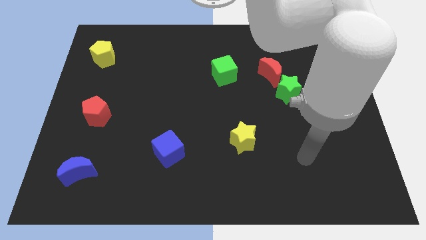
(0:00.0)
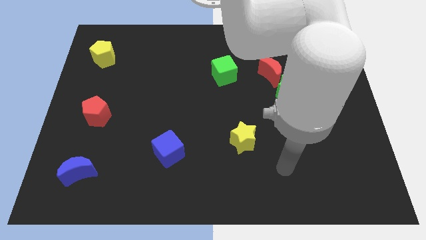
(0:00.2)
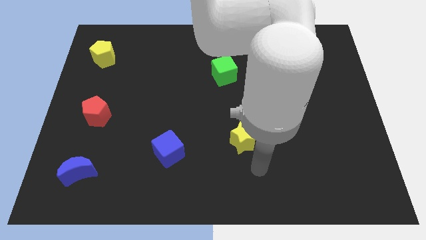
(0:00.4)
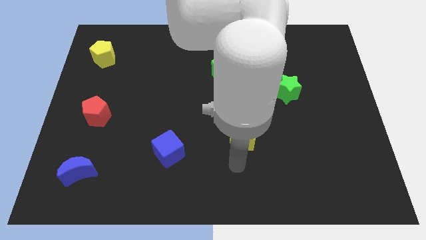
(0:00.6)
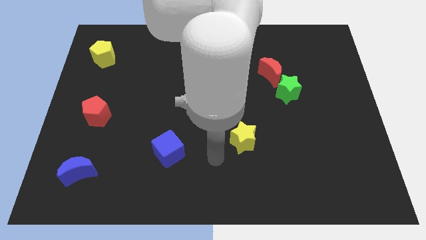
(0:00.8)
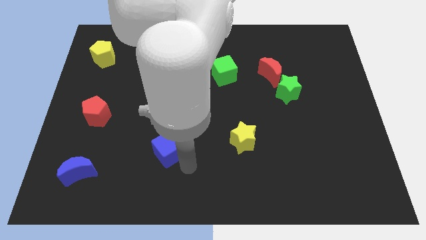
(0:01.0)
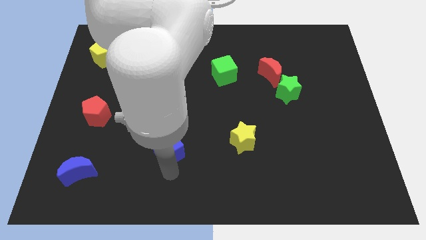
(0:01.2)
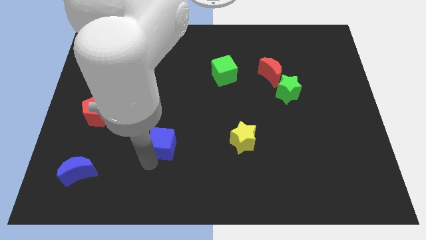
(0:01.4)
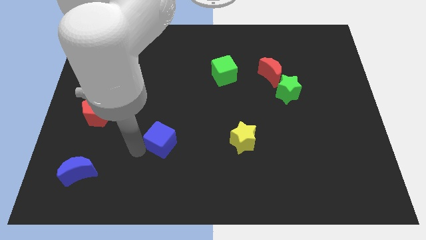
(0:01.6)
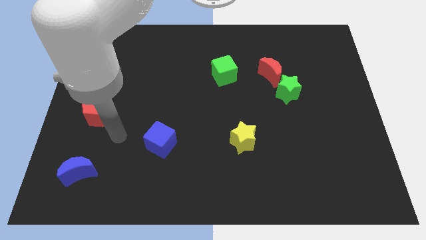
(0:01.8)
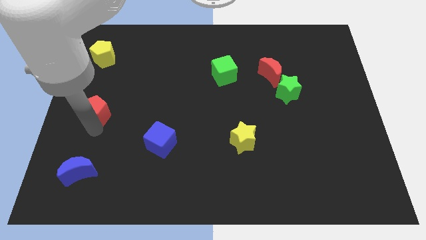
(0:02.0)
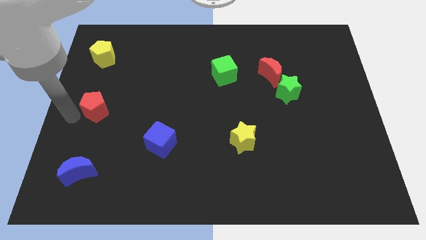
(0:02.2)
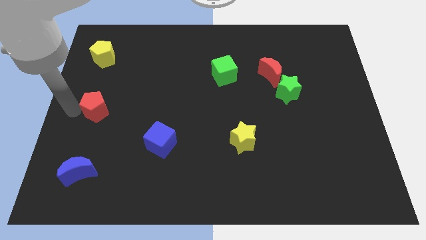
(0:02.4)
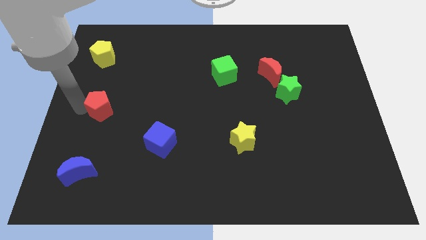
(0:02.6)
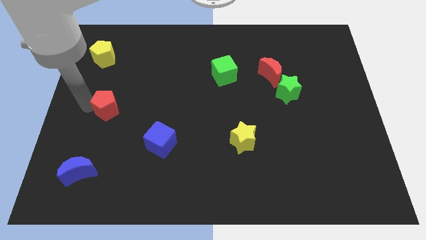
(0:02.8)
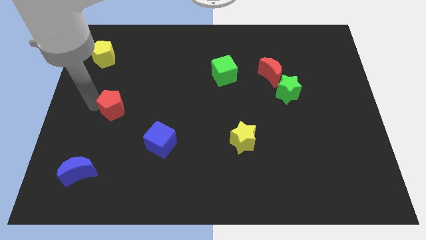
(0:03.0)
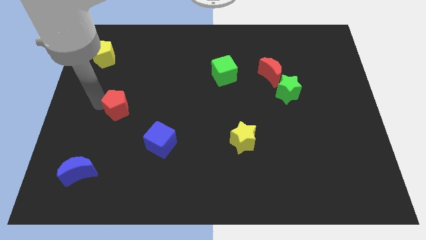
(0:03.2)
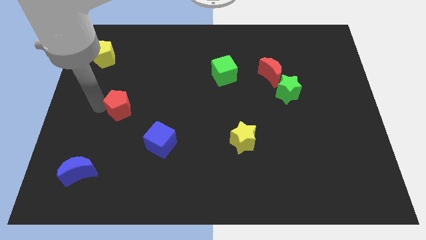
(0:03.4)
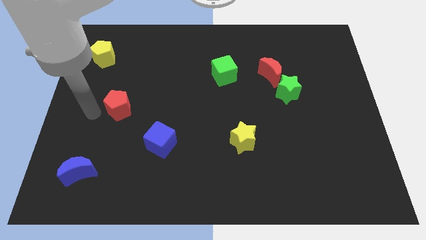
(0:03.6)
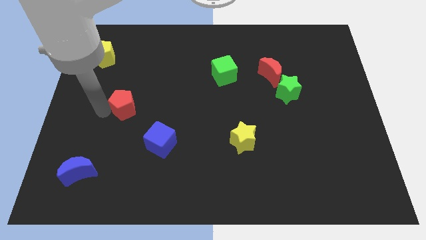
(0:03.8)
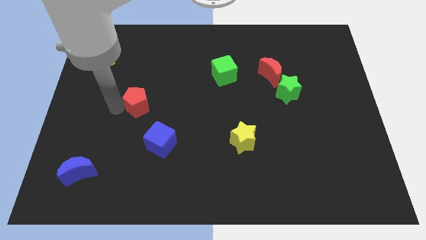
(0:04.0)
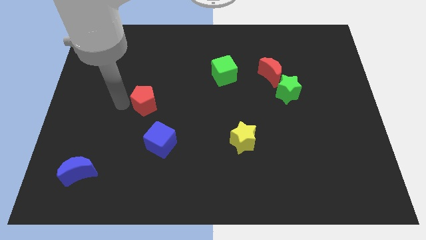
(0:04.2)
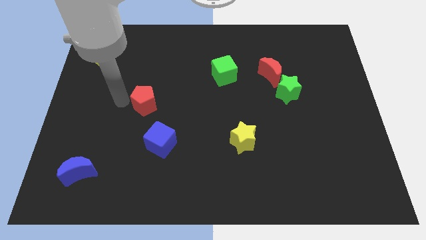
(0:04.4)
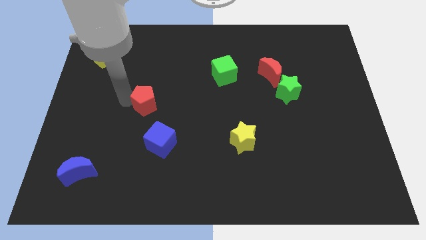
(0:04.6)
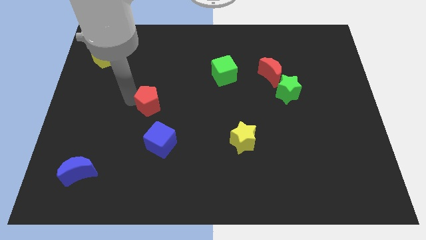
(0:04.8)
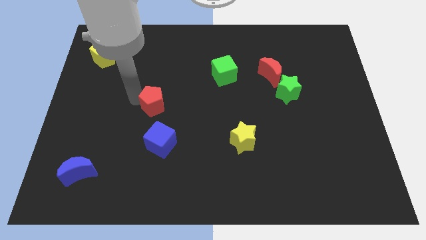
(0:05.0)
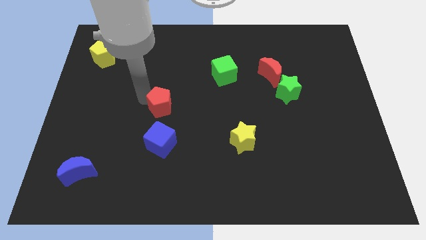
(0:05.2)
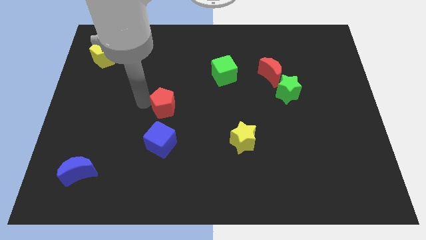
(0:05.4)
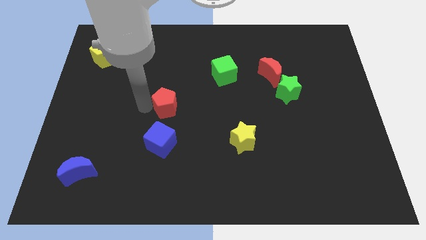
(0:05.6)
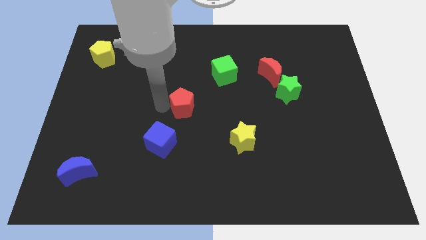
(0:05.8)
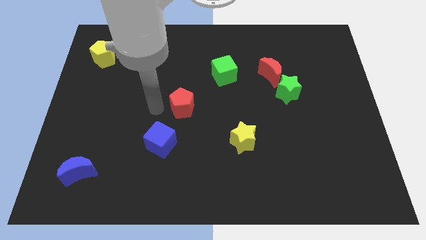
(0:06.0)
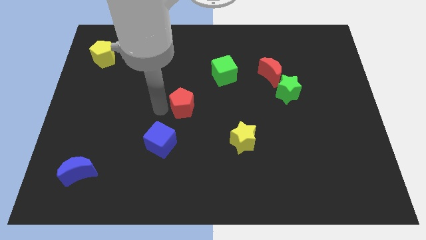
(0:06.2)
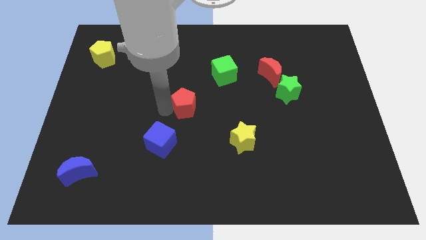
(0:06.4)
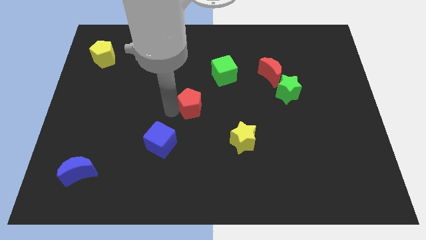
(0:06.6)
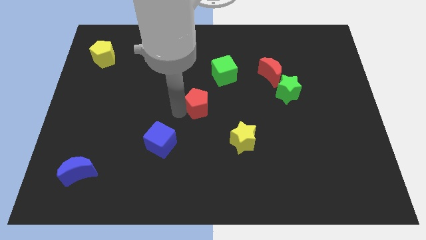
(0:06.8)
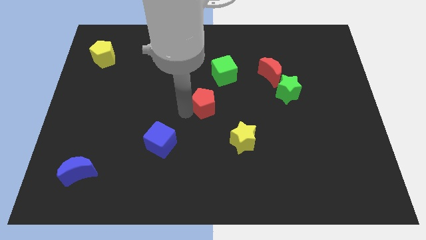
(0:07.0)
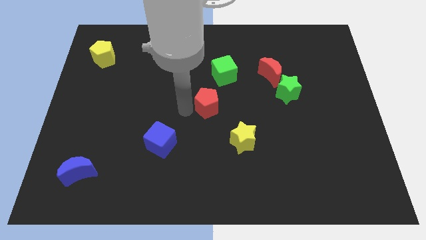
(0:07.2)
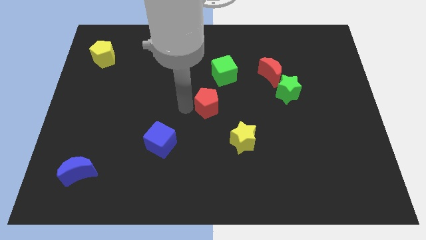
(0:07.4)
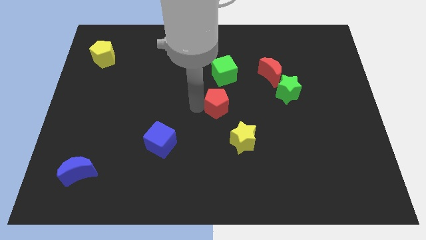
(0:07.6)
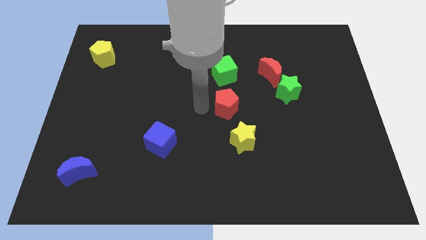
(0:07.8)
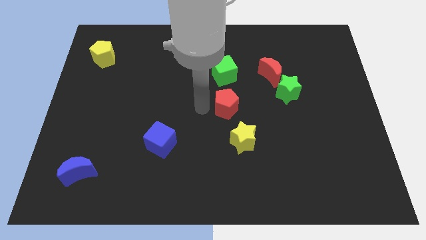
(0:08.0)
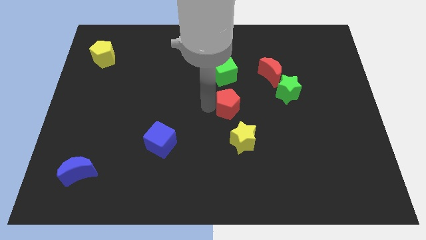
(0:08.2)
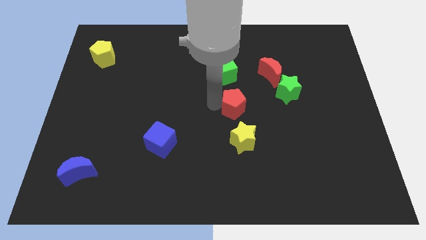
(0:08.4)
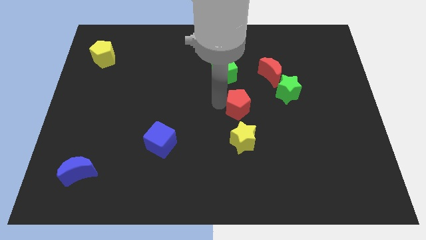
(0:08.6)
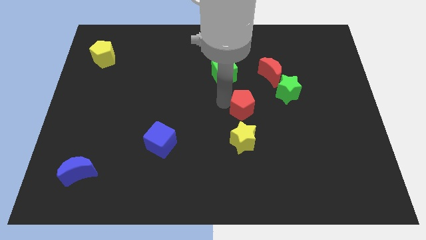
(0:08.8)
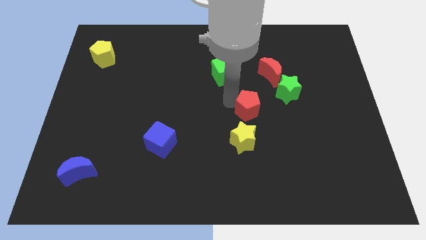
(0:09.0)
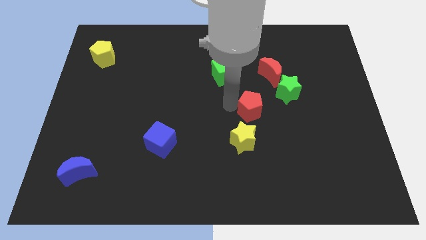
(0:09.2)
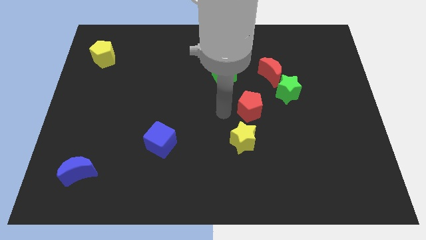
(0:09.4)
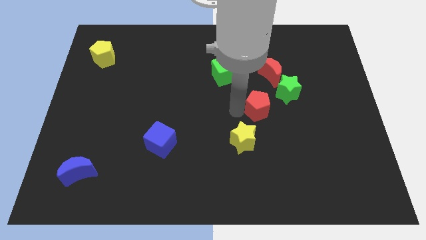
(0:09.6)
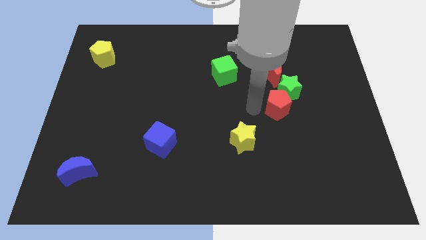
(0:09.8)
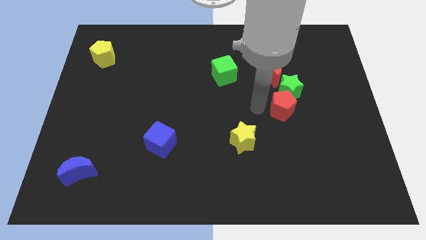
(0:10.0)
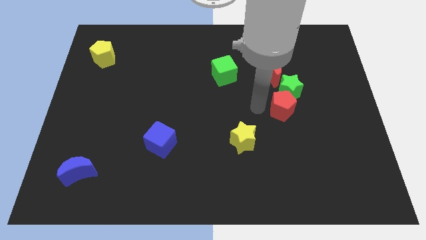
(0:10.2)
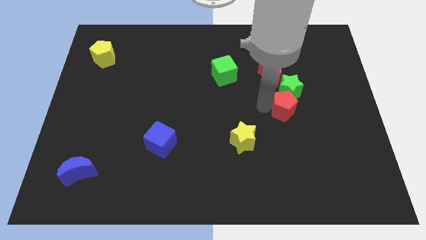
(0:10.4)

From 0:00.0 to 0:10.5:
put the red pentagon to the bottom right side of the green star

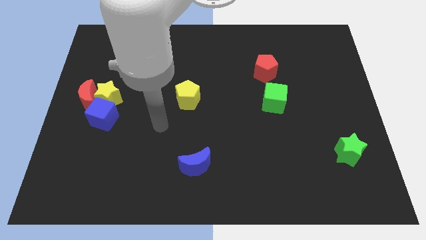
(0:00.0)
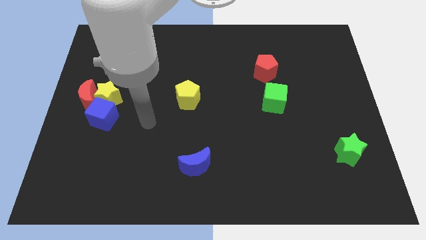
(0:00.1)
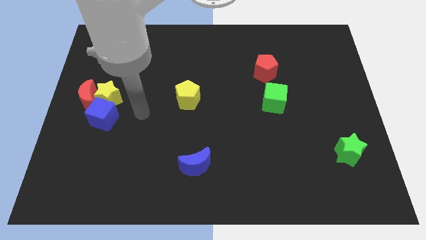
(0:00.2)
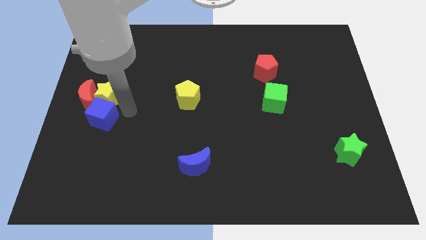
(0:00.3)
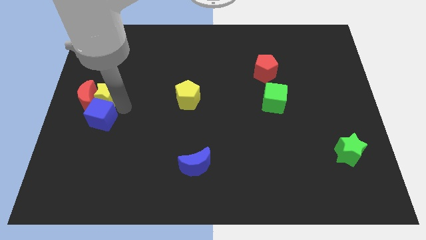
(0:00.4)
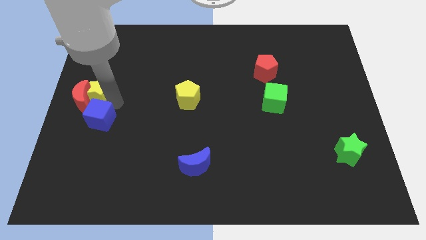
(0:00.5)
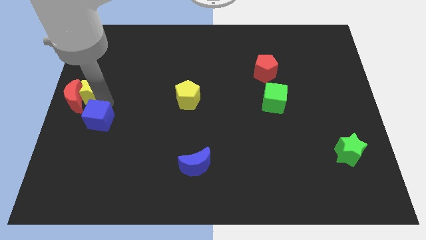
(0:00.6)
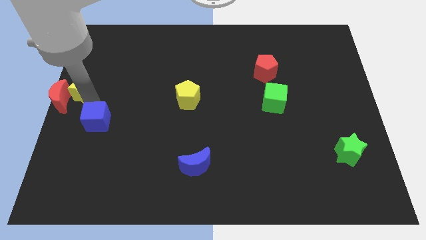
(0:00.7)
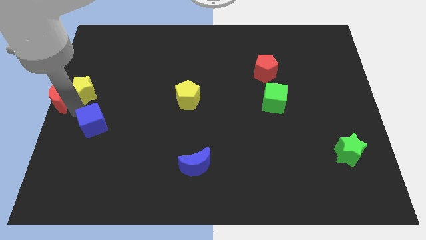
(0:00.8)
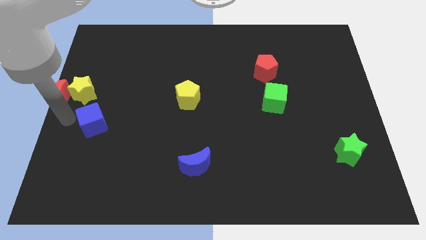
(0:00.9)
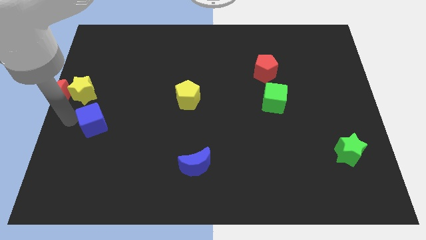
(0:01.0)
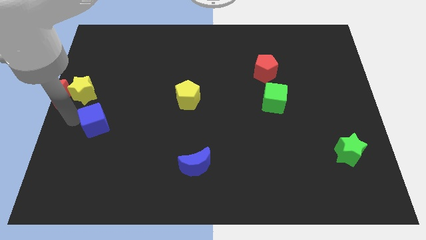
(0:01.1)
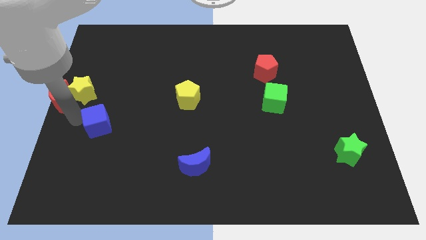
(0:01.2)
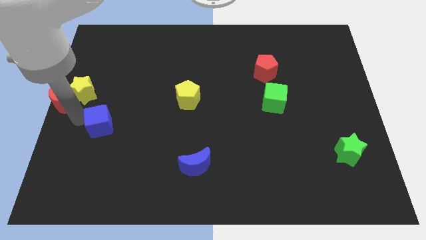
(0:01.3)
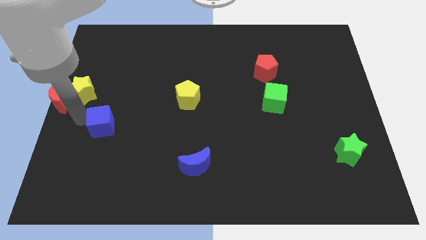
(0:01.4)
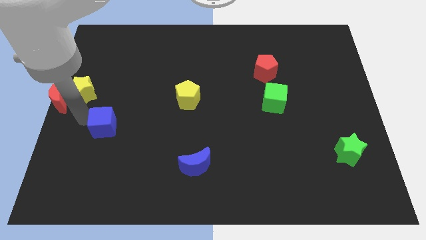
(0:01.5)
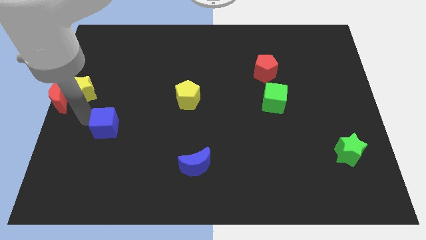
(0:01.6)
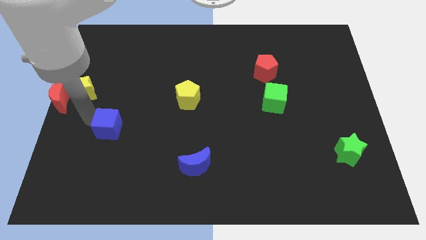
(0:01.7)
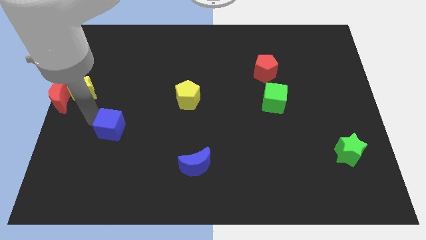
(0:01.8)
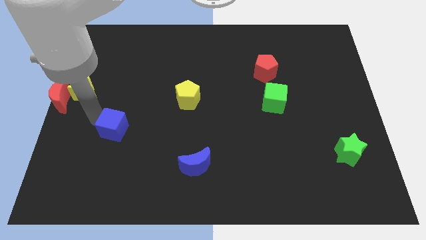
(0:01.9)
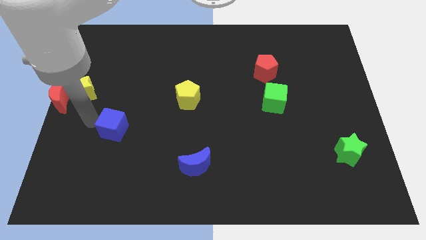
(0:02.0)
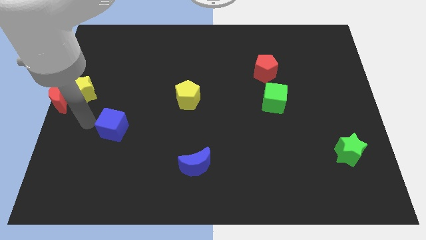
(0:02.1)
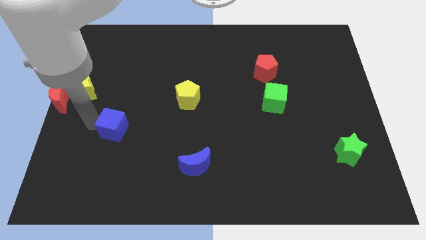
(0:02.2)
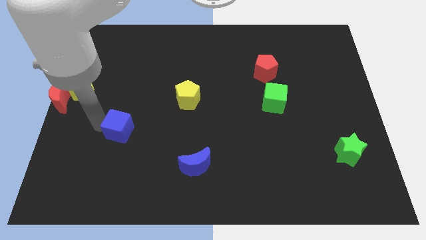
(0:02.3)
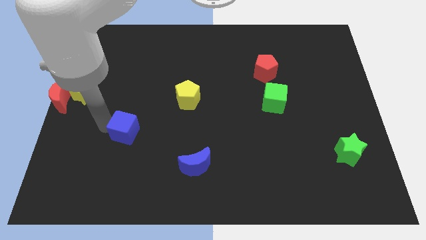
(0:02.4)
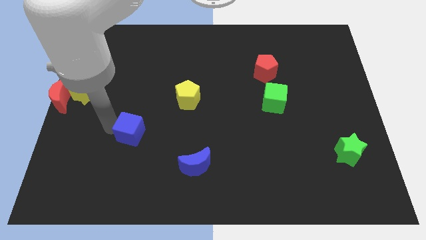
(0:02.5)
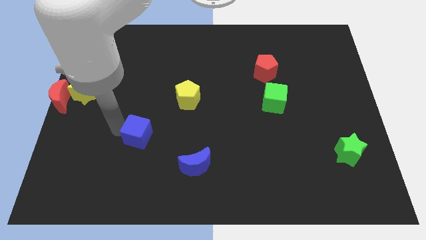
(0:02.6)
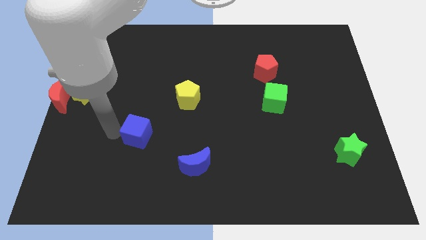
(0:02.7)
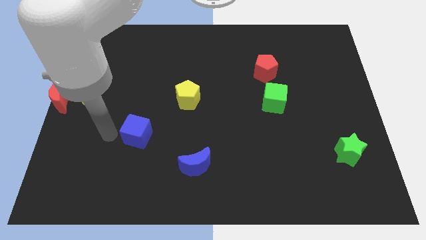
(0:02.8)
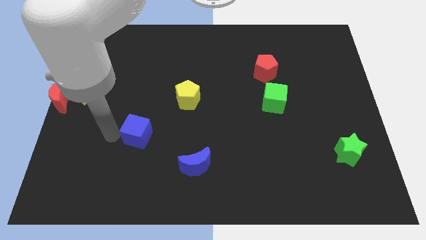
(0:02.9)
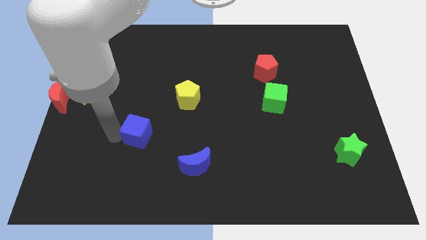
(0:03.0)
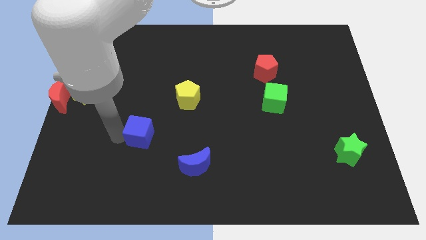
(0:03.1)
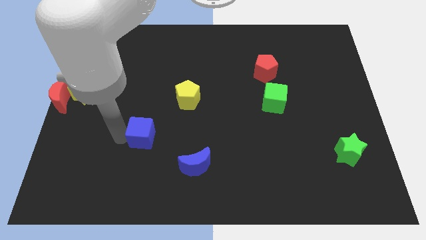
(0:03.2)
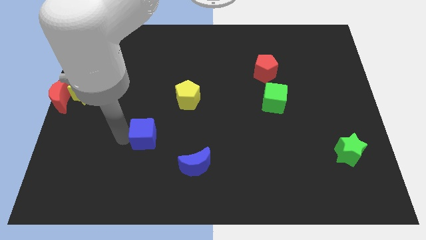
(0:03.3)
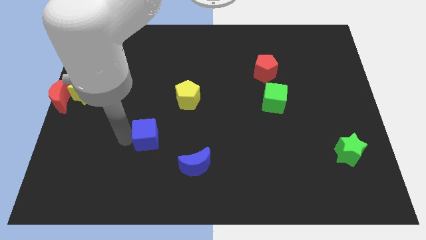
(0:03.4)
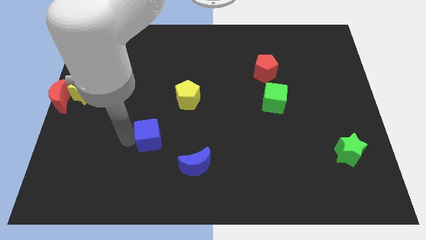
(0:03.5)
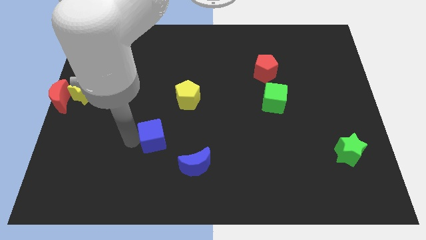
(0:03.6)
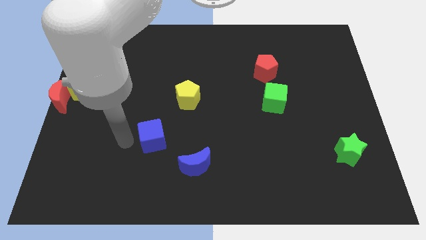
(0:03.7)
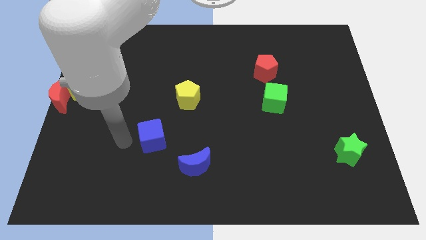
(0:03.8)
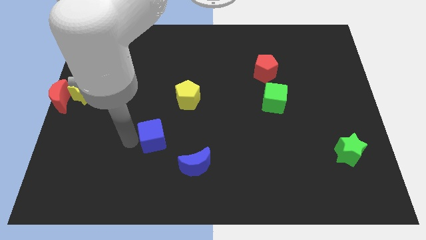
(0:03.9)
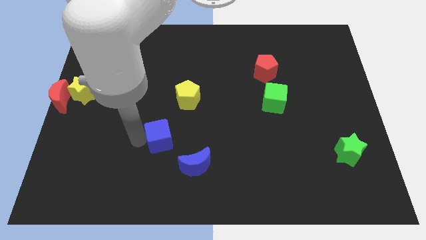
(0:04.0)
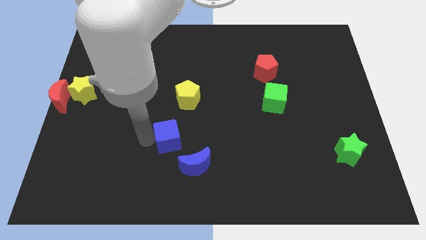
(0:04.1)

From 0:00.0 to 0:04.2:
slide the blue cube to the bottom of the yellow pentagon
